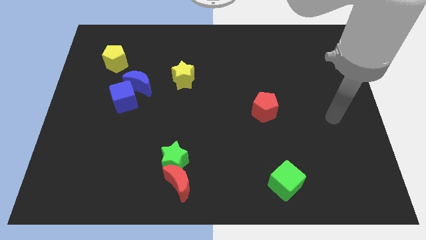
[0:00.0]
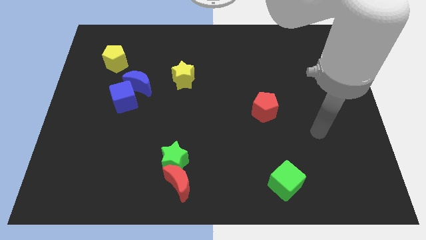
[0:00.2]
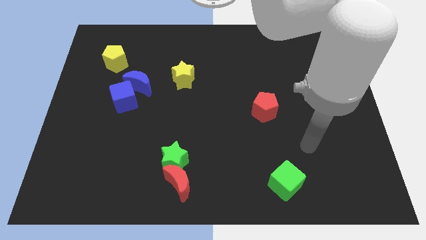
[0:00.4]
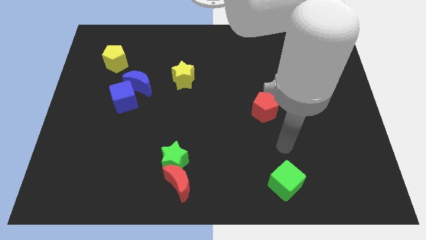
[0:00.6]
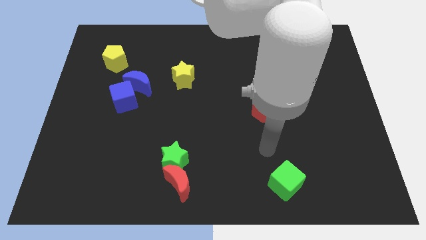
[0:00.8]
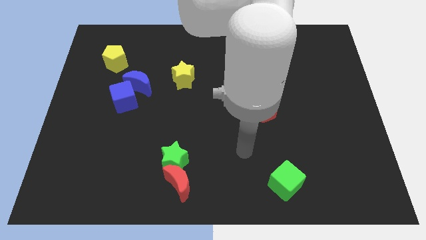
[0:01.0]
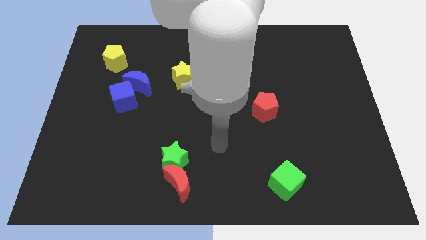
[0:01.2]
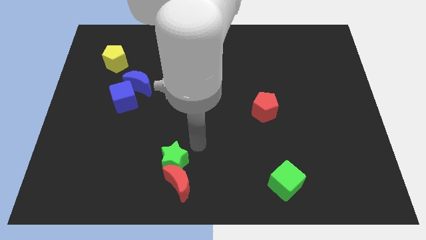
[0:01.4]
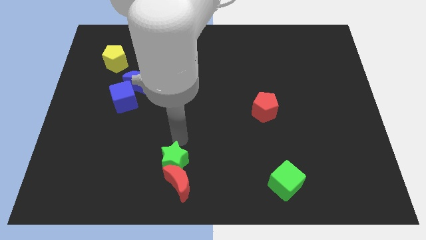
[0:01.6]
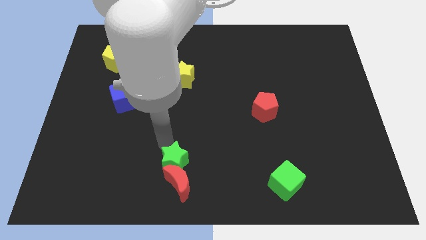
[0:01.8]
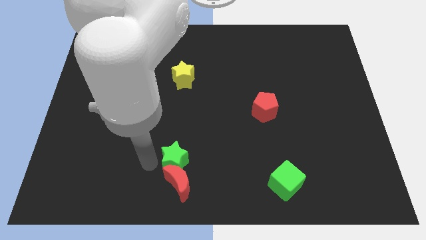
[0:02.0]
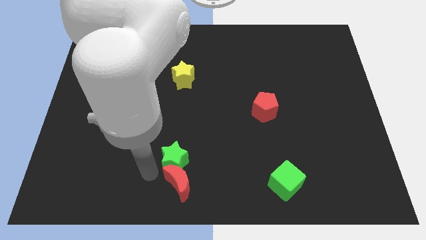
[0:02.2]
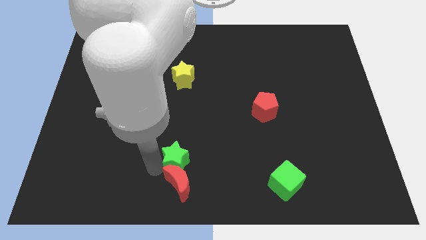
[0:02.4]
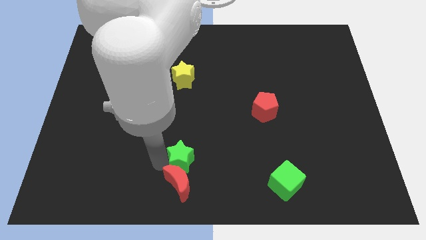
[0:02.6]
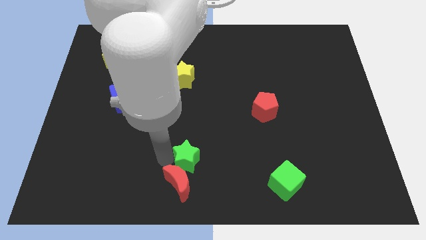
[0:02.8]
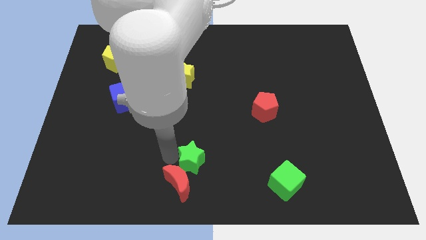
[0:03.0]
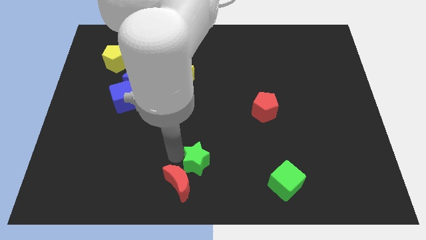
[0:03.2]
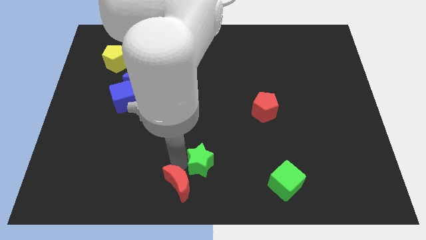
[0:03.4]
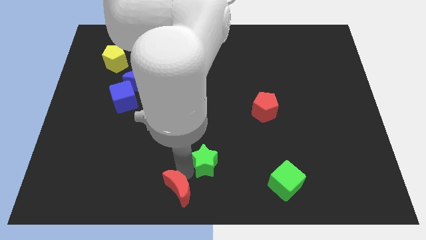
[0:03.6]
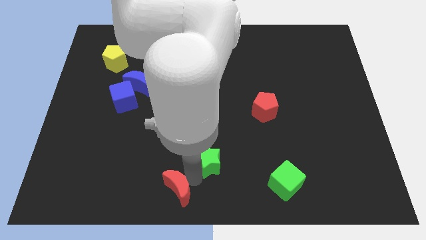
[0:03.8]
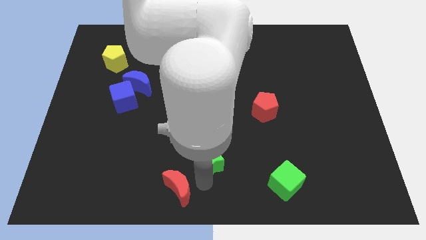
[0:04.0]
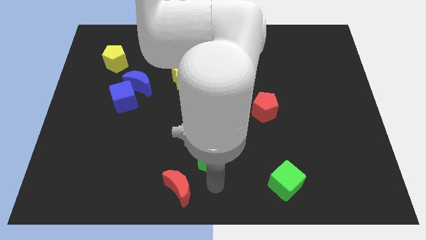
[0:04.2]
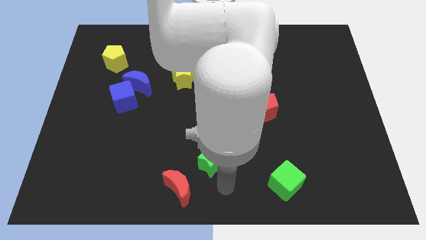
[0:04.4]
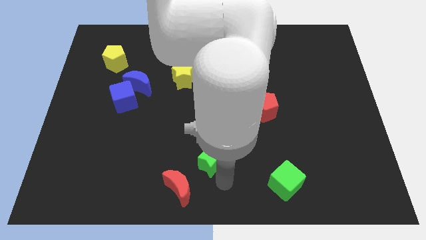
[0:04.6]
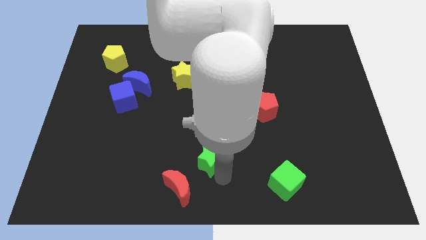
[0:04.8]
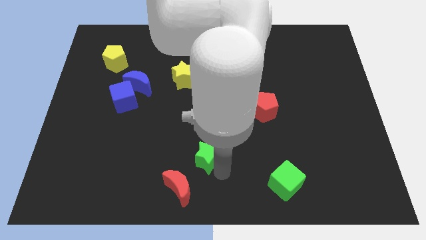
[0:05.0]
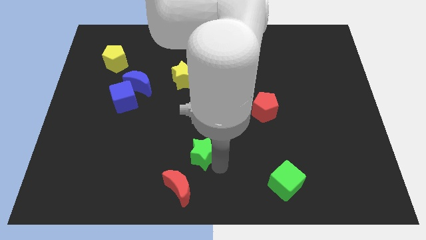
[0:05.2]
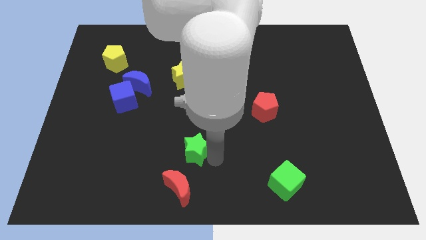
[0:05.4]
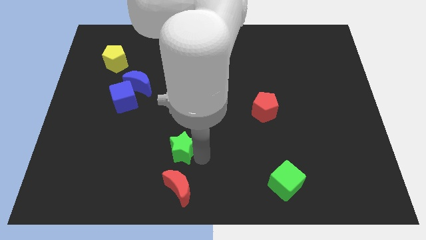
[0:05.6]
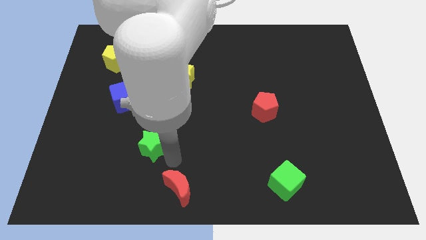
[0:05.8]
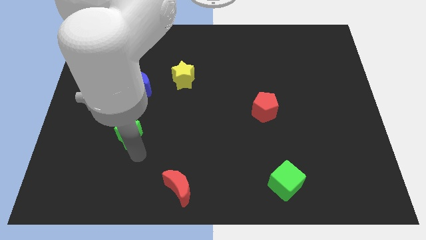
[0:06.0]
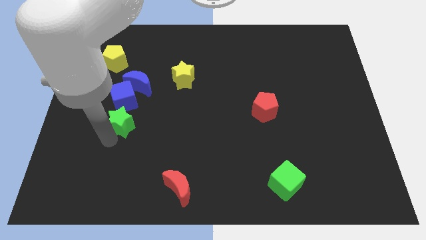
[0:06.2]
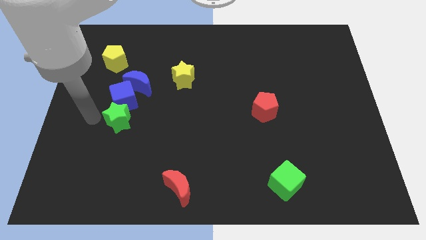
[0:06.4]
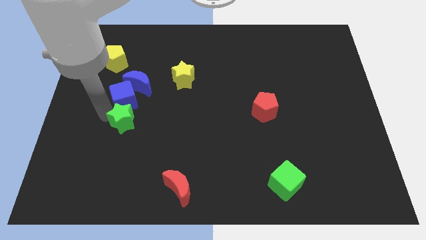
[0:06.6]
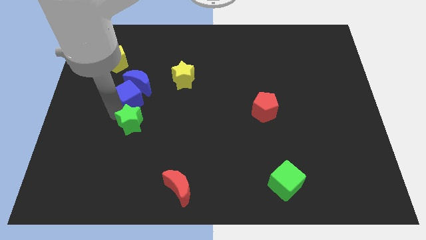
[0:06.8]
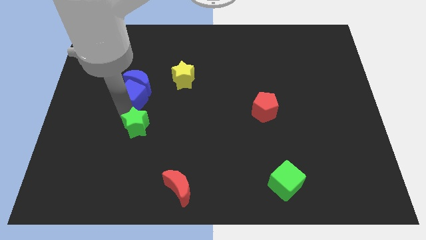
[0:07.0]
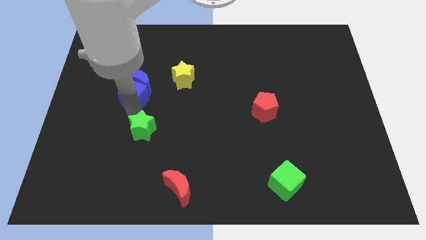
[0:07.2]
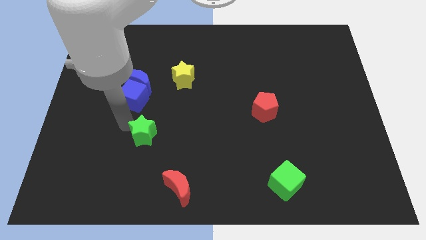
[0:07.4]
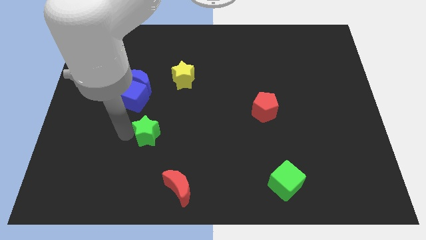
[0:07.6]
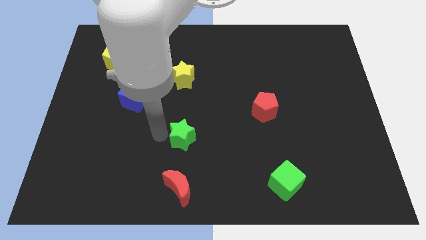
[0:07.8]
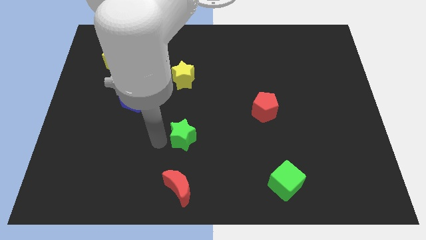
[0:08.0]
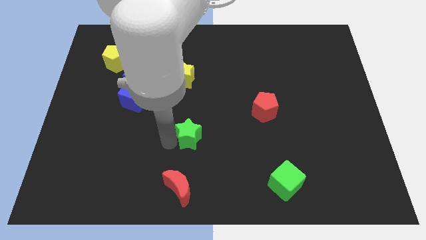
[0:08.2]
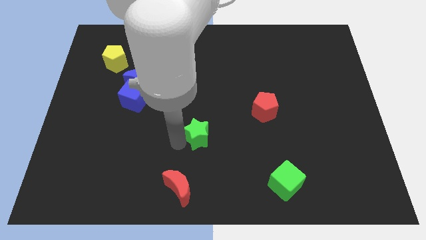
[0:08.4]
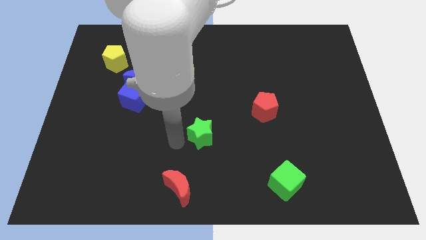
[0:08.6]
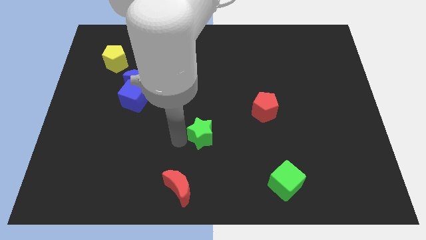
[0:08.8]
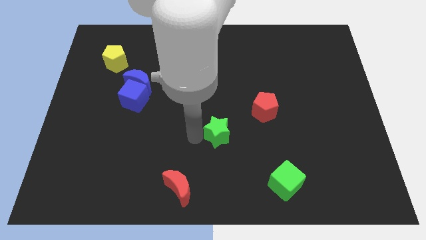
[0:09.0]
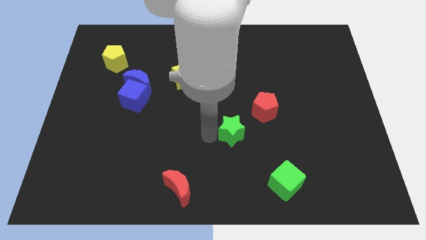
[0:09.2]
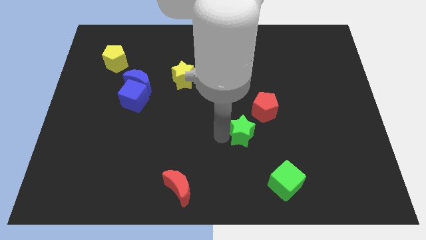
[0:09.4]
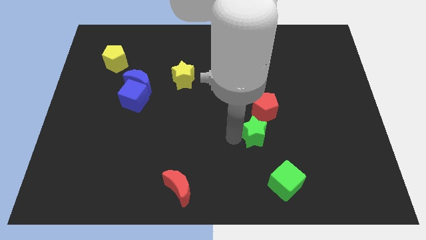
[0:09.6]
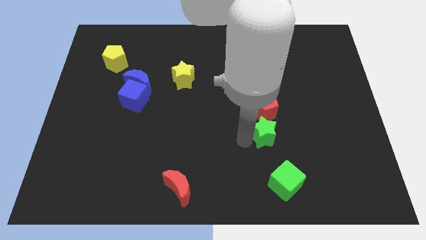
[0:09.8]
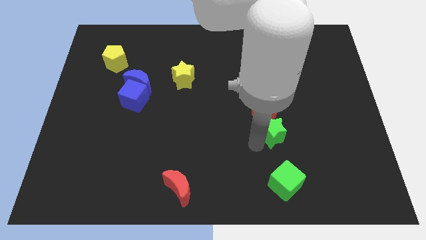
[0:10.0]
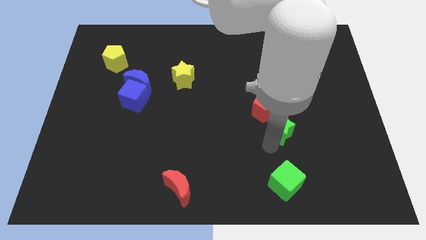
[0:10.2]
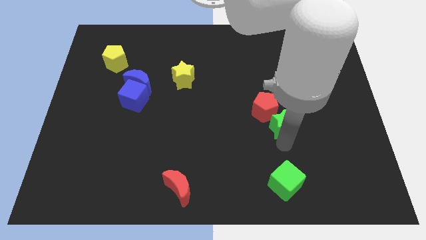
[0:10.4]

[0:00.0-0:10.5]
move the green star towards the red pentagon

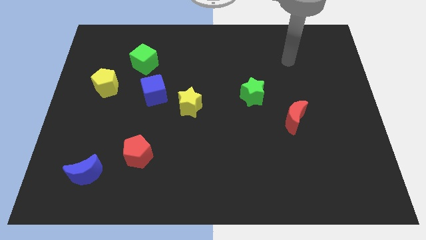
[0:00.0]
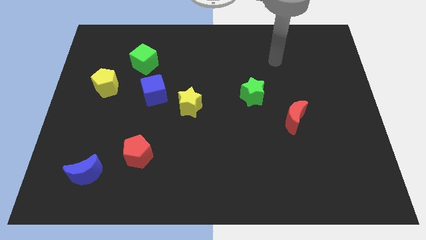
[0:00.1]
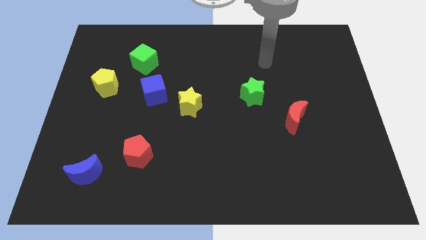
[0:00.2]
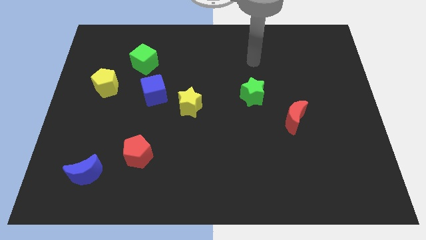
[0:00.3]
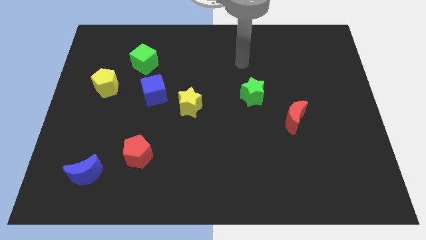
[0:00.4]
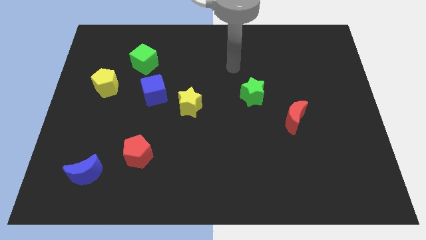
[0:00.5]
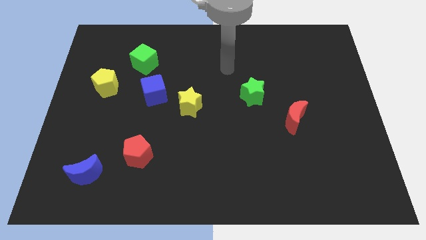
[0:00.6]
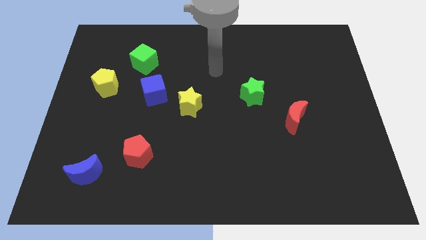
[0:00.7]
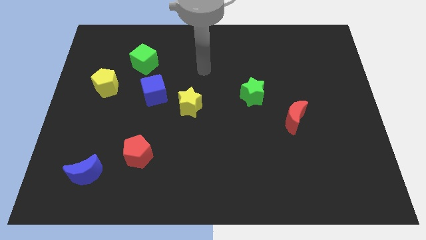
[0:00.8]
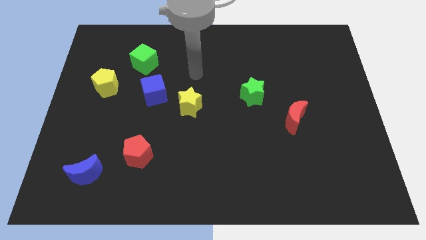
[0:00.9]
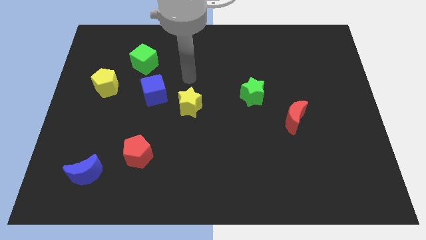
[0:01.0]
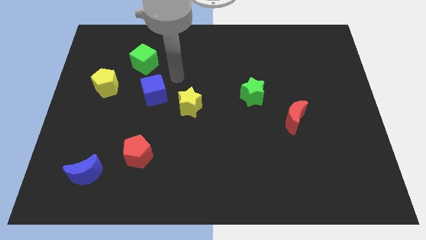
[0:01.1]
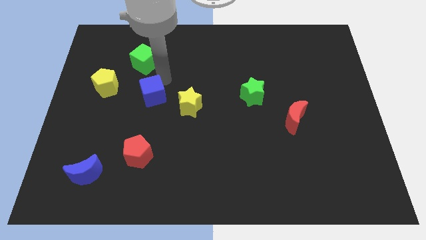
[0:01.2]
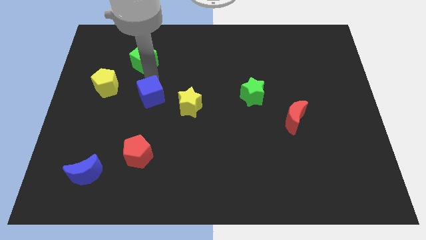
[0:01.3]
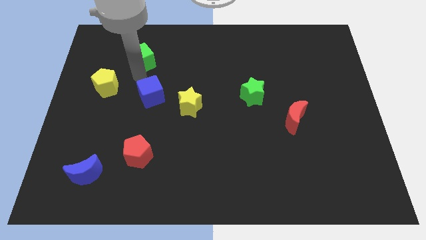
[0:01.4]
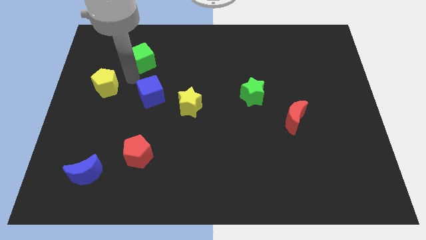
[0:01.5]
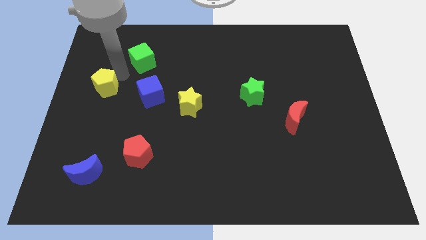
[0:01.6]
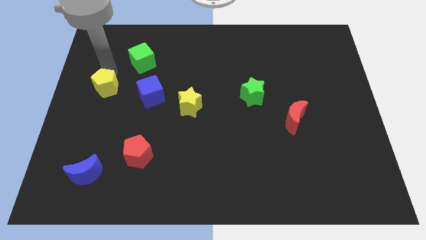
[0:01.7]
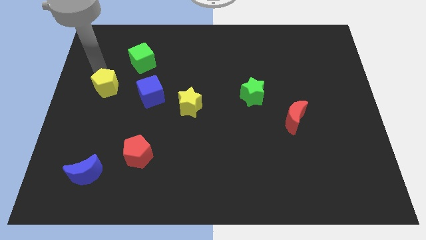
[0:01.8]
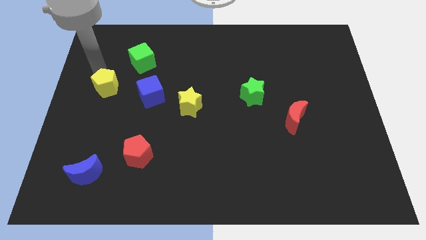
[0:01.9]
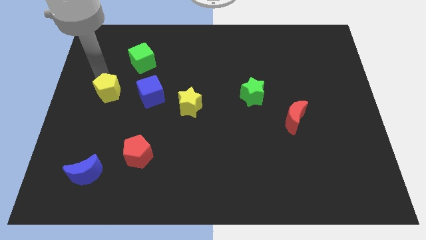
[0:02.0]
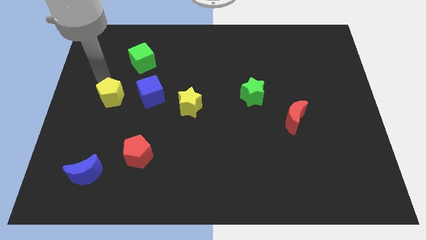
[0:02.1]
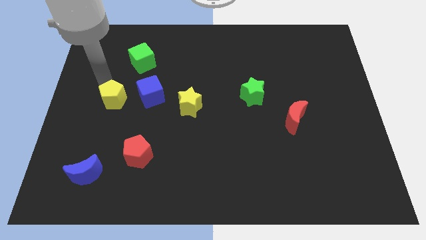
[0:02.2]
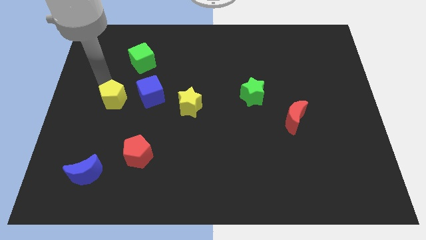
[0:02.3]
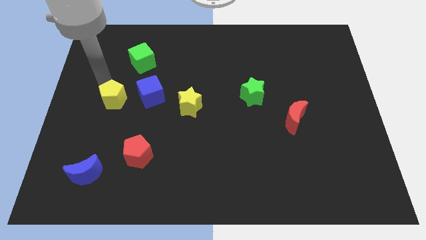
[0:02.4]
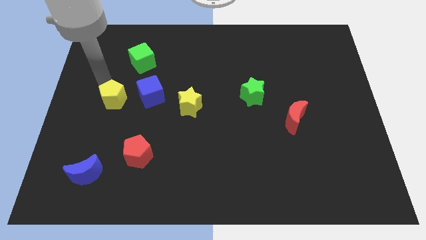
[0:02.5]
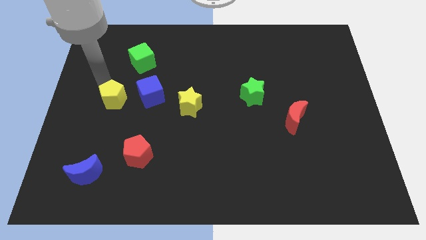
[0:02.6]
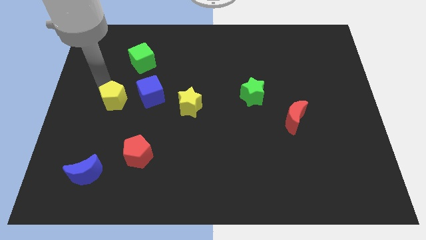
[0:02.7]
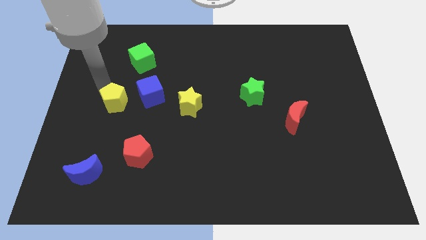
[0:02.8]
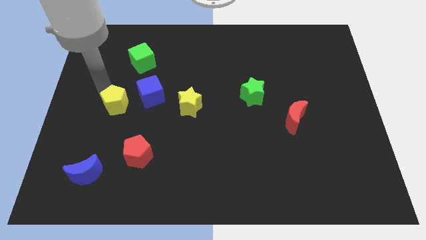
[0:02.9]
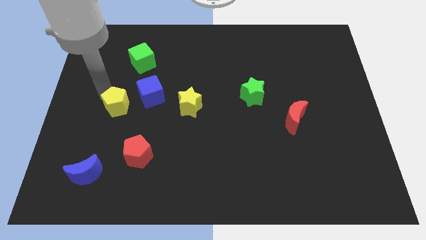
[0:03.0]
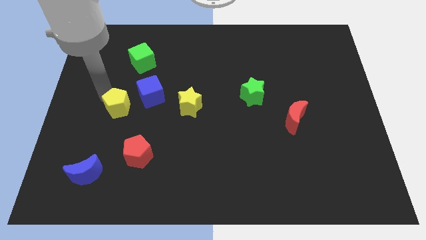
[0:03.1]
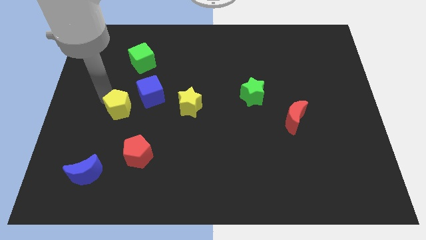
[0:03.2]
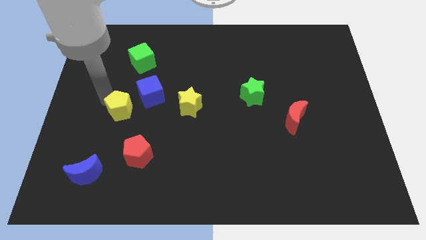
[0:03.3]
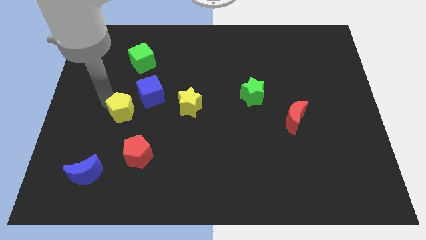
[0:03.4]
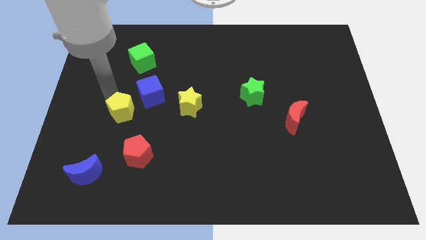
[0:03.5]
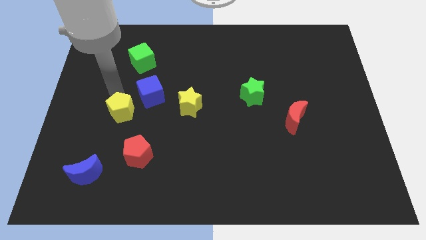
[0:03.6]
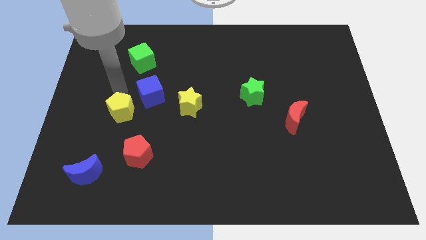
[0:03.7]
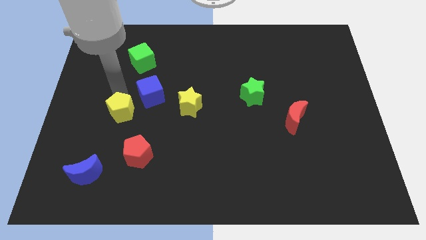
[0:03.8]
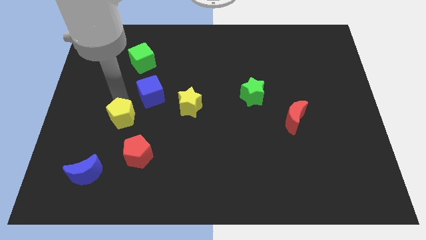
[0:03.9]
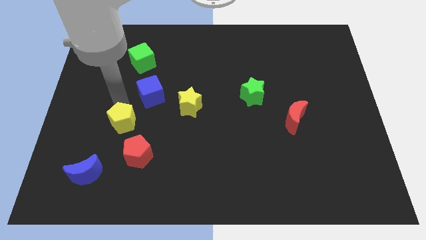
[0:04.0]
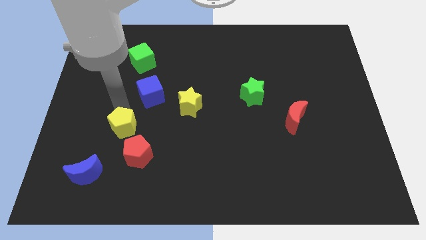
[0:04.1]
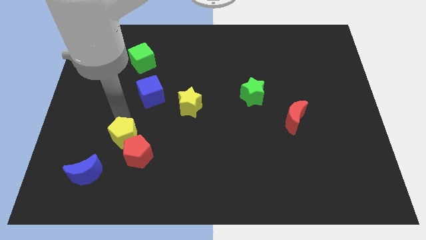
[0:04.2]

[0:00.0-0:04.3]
put the yellow pentagon to the red pentagon
